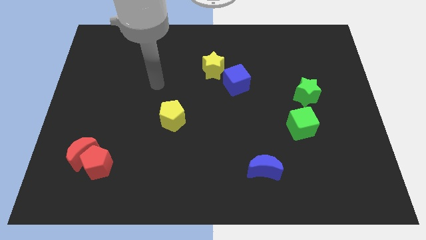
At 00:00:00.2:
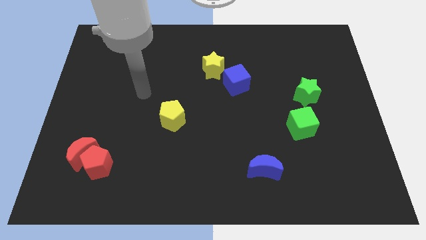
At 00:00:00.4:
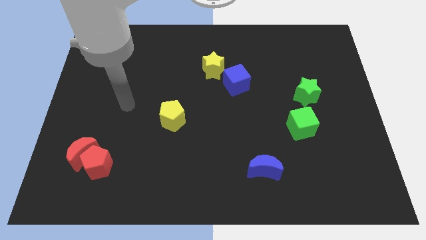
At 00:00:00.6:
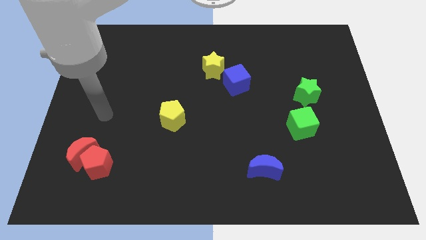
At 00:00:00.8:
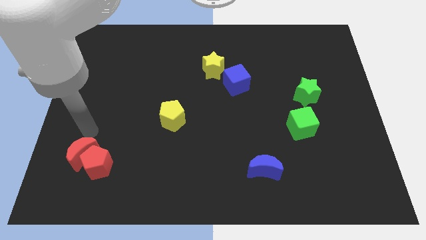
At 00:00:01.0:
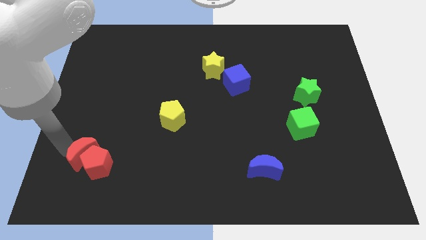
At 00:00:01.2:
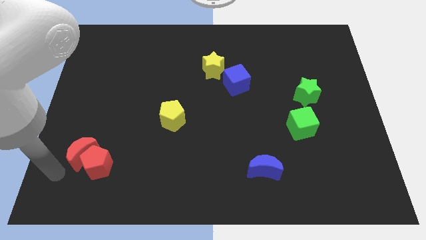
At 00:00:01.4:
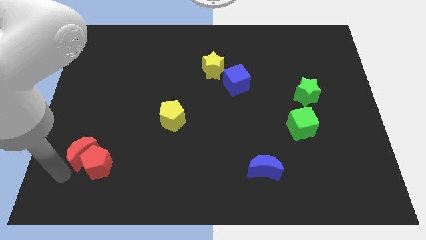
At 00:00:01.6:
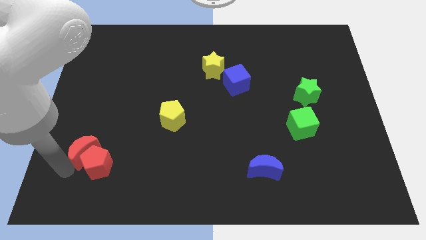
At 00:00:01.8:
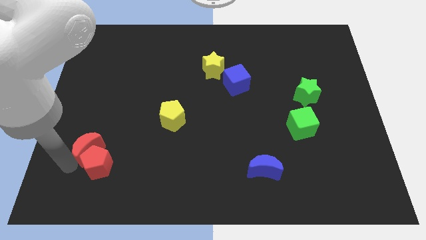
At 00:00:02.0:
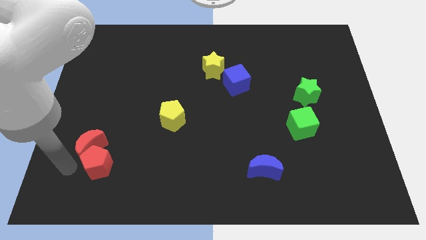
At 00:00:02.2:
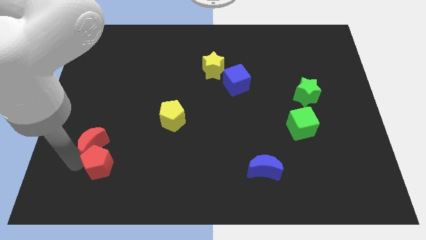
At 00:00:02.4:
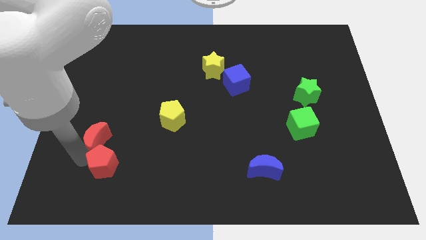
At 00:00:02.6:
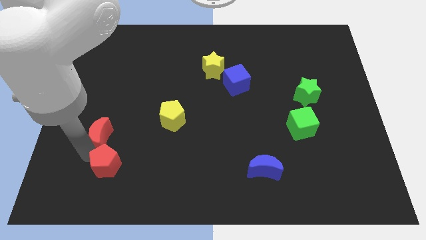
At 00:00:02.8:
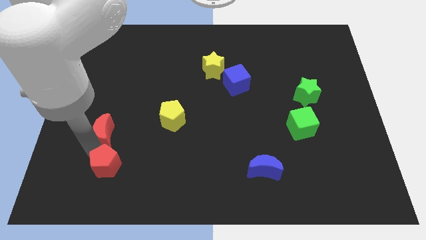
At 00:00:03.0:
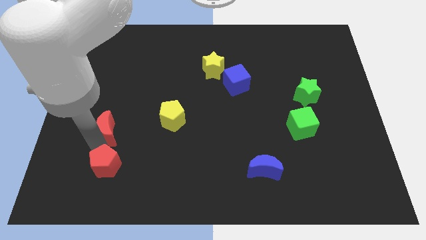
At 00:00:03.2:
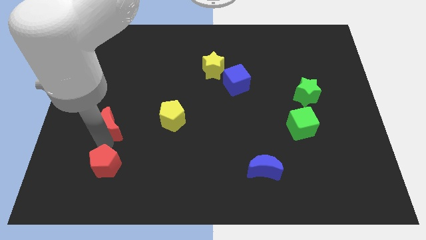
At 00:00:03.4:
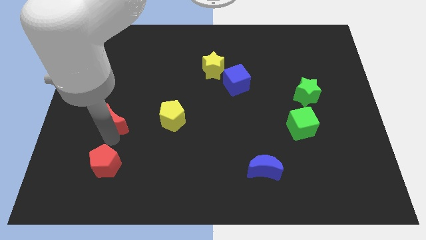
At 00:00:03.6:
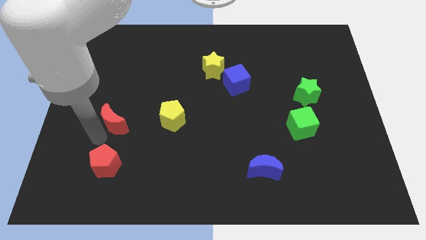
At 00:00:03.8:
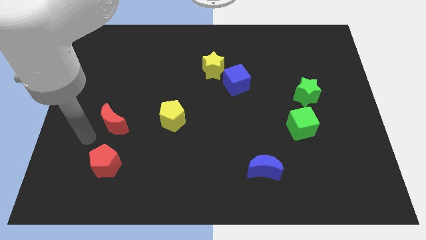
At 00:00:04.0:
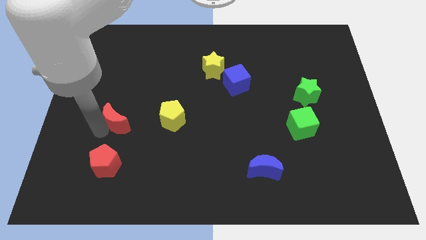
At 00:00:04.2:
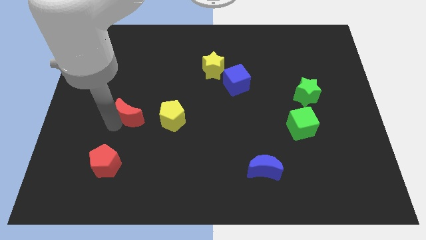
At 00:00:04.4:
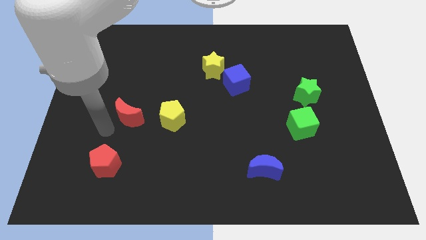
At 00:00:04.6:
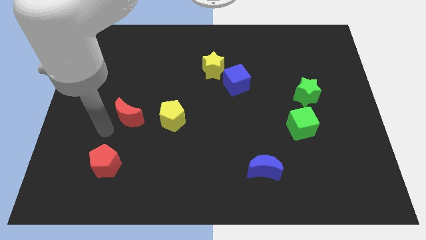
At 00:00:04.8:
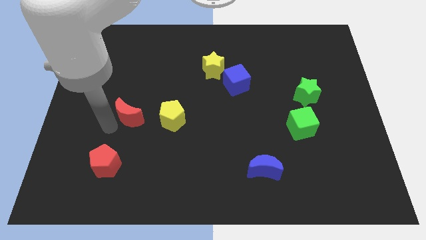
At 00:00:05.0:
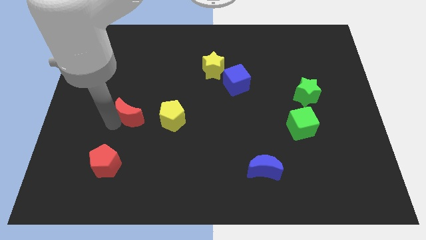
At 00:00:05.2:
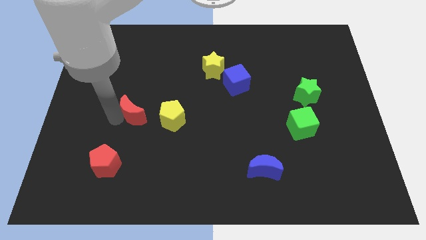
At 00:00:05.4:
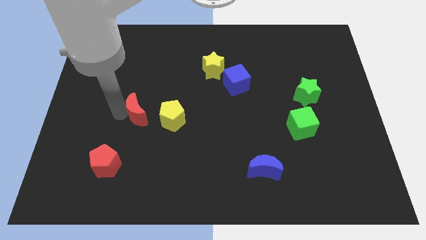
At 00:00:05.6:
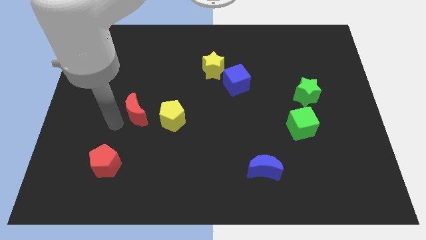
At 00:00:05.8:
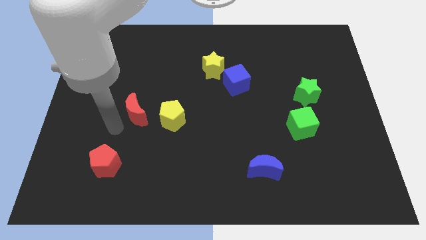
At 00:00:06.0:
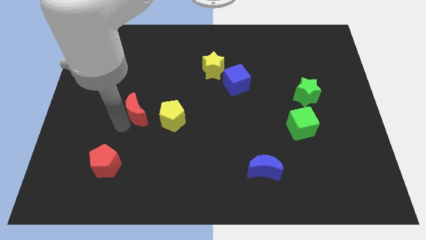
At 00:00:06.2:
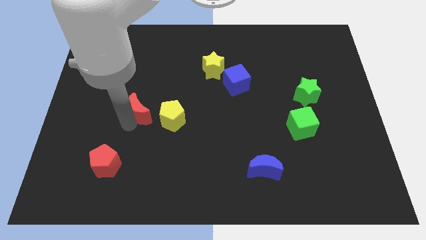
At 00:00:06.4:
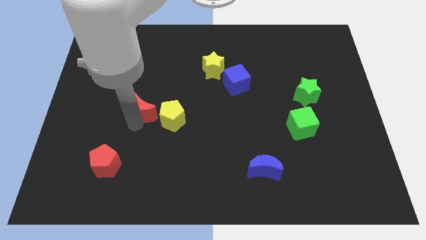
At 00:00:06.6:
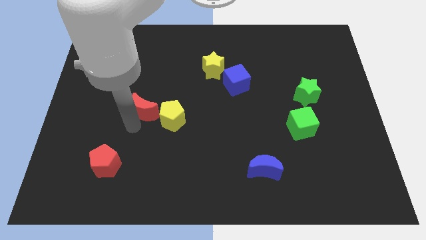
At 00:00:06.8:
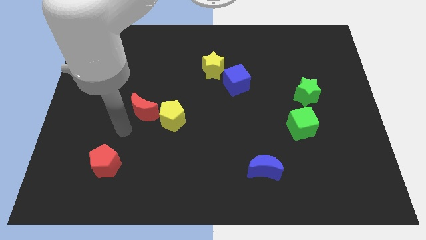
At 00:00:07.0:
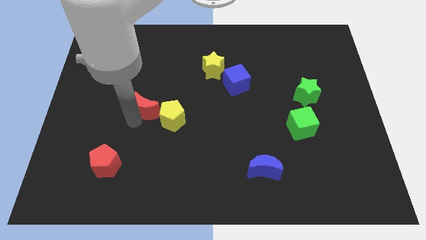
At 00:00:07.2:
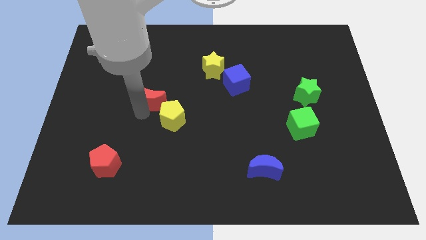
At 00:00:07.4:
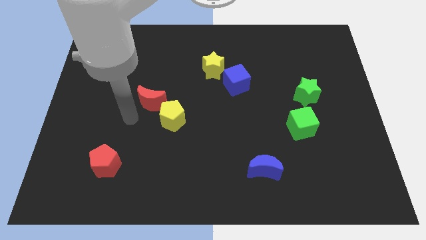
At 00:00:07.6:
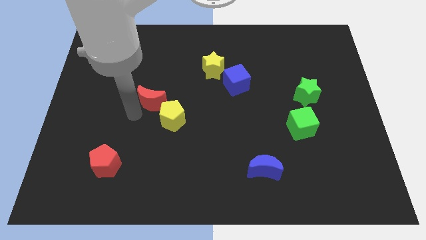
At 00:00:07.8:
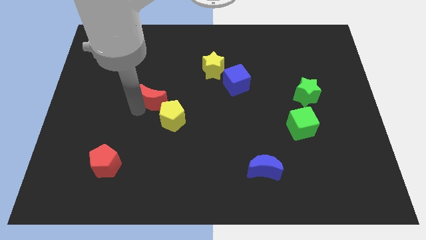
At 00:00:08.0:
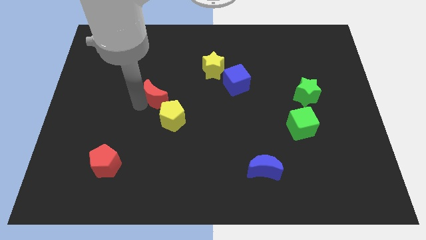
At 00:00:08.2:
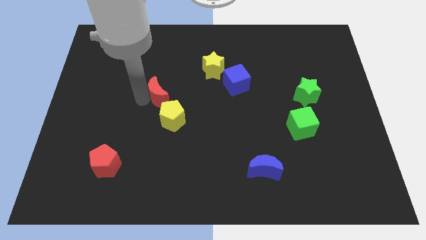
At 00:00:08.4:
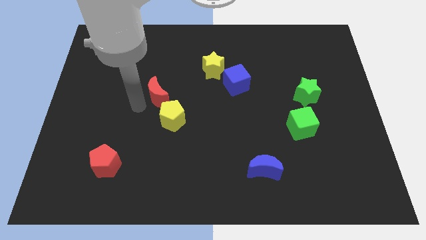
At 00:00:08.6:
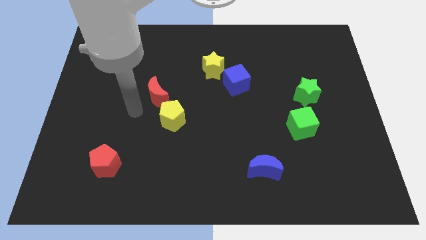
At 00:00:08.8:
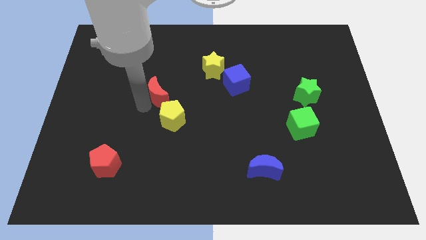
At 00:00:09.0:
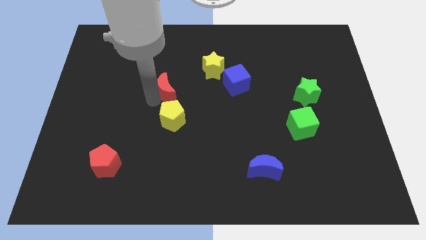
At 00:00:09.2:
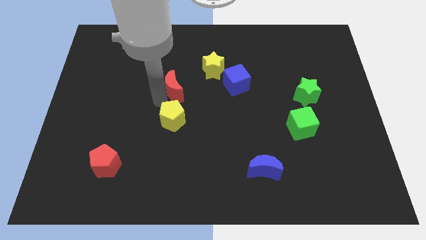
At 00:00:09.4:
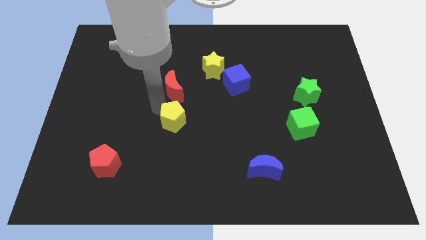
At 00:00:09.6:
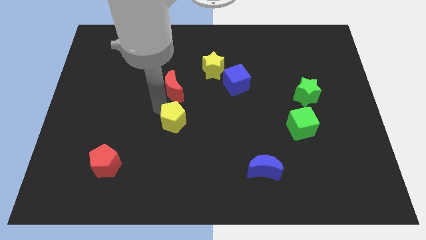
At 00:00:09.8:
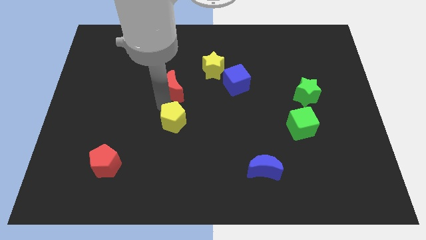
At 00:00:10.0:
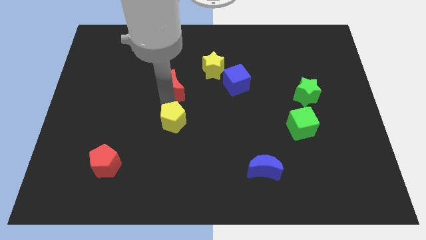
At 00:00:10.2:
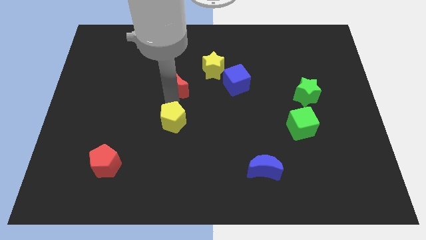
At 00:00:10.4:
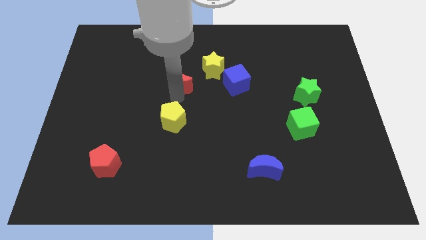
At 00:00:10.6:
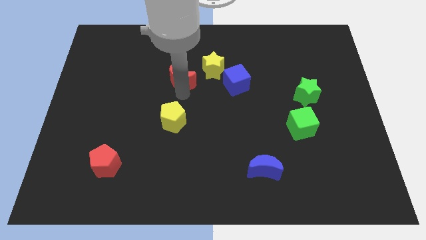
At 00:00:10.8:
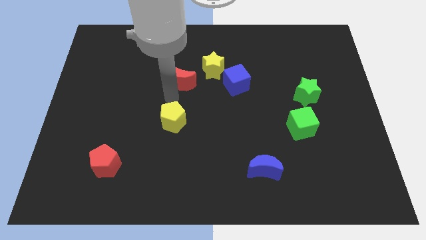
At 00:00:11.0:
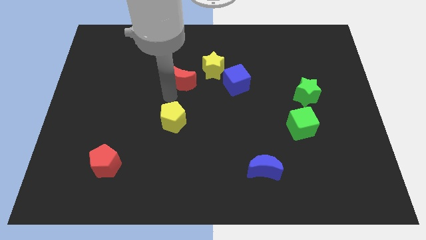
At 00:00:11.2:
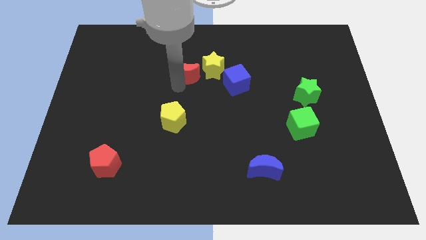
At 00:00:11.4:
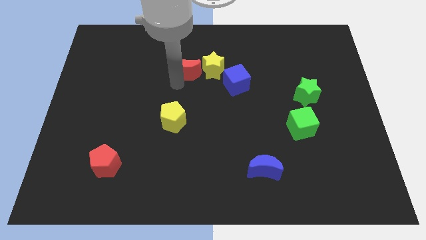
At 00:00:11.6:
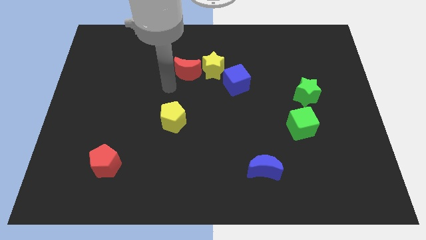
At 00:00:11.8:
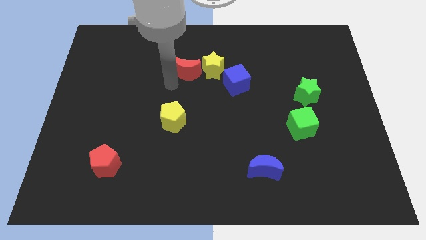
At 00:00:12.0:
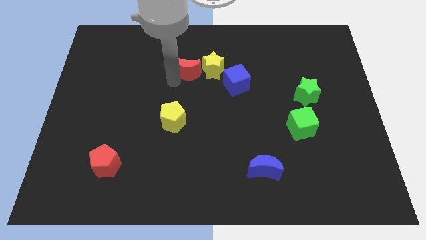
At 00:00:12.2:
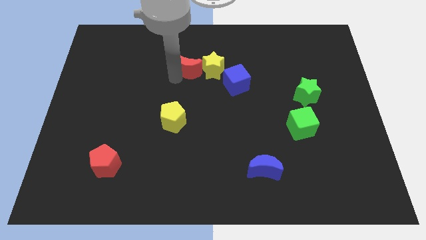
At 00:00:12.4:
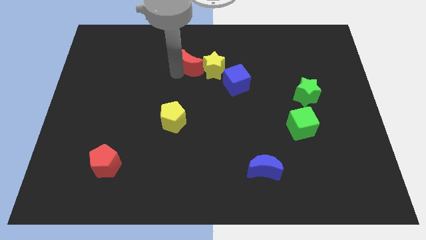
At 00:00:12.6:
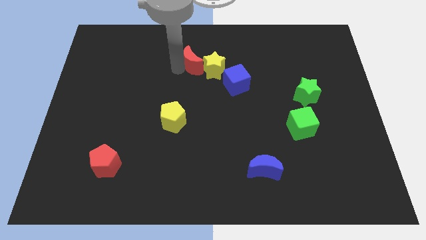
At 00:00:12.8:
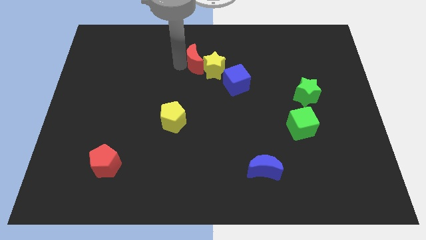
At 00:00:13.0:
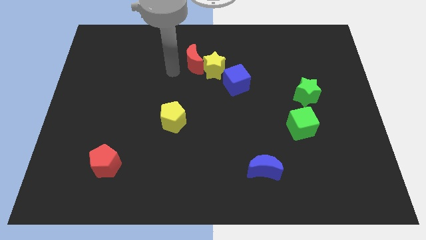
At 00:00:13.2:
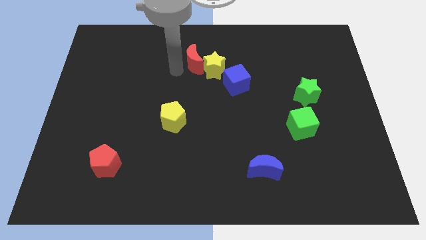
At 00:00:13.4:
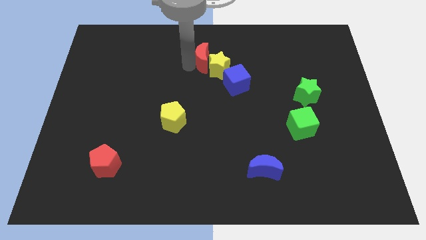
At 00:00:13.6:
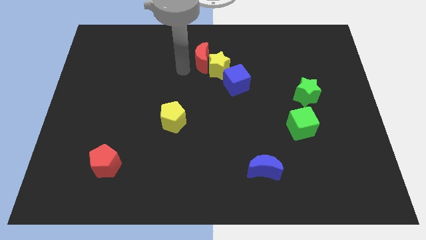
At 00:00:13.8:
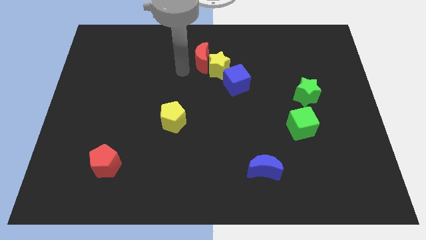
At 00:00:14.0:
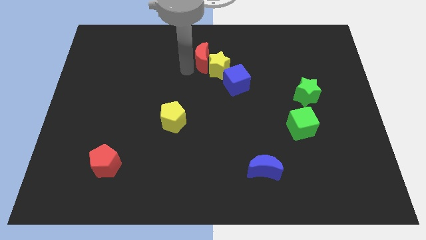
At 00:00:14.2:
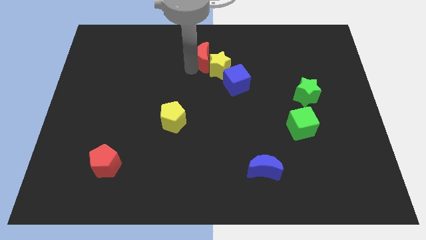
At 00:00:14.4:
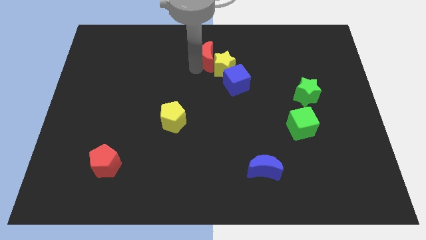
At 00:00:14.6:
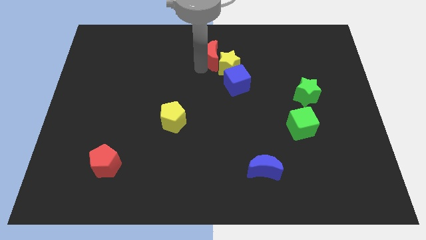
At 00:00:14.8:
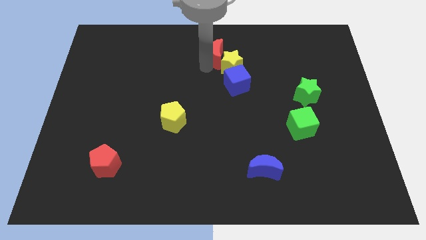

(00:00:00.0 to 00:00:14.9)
put the red moon to the towards your base
